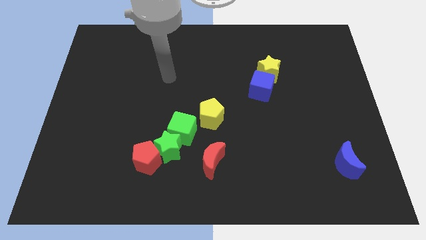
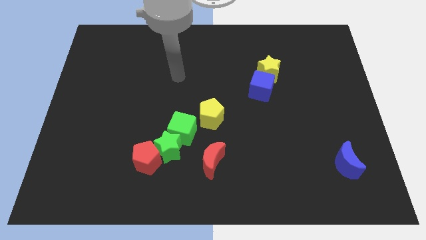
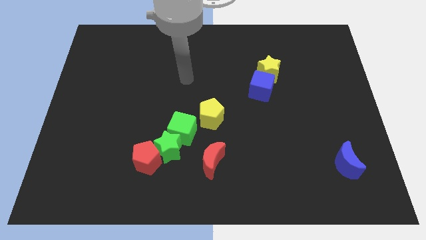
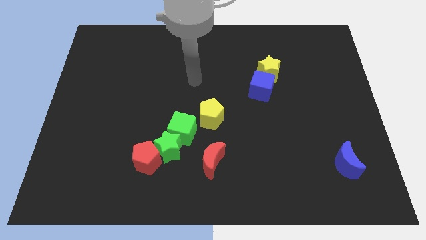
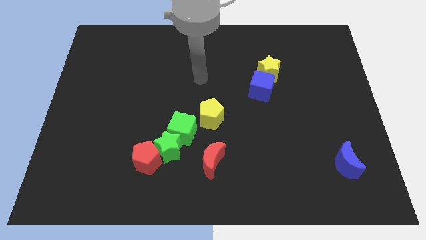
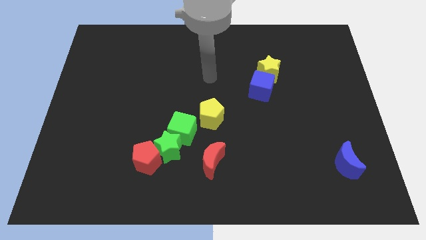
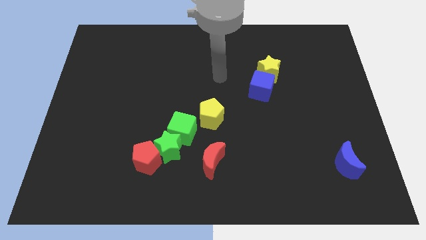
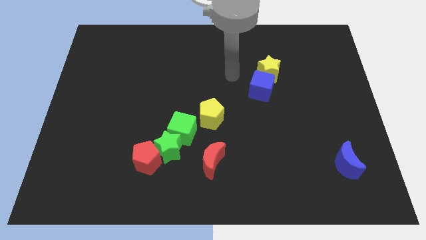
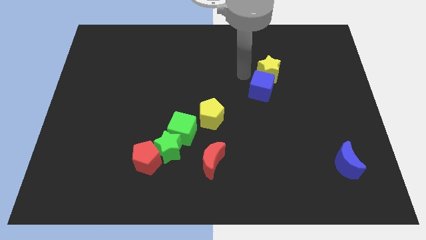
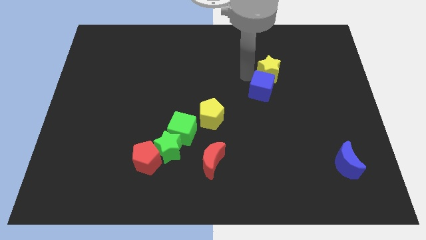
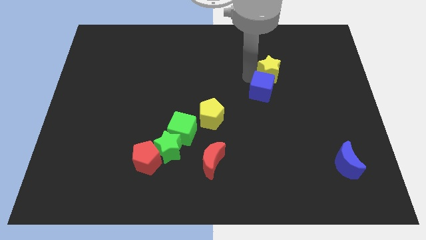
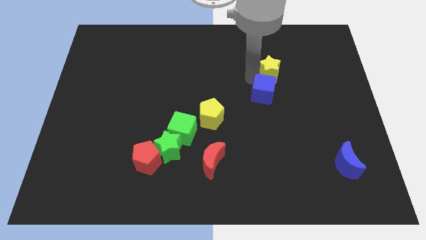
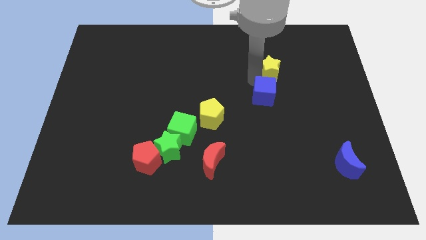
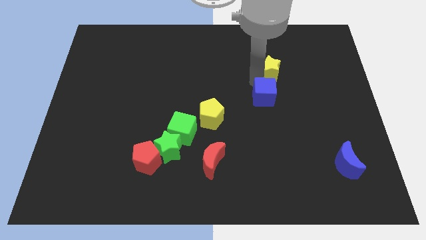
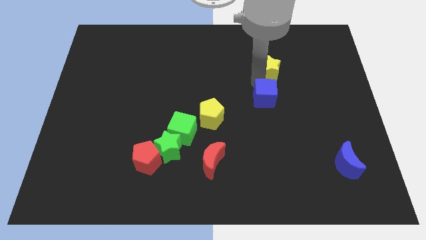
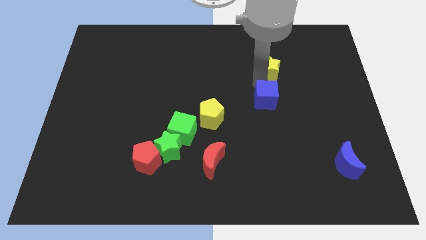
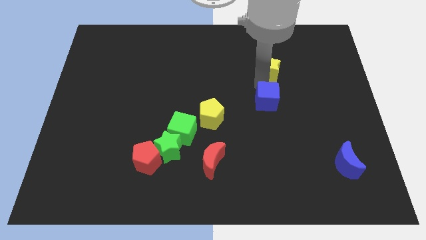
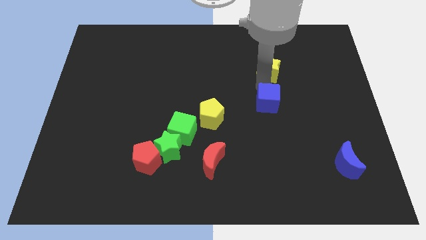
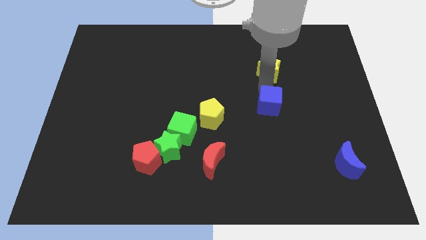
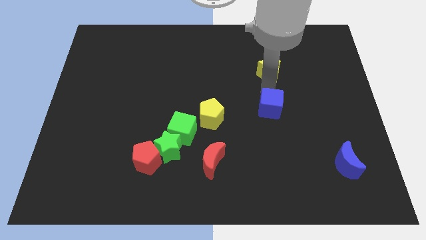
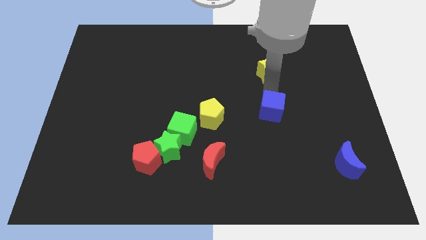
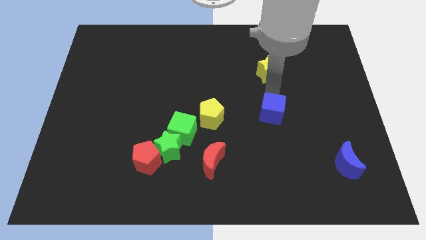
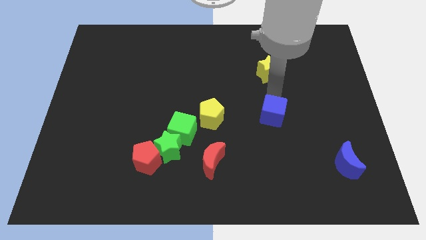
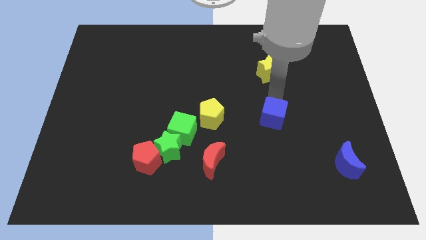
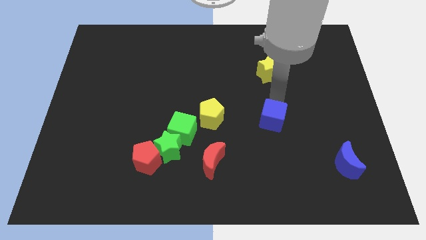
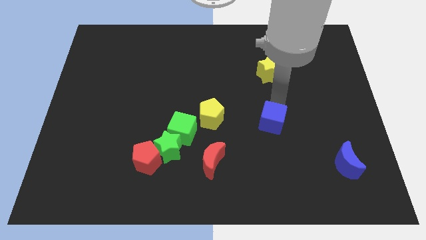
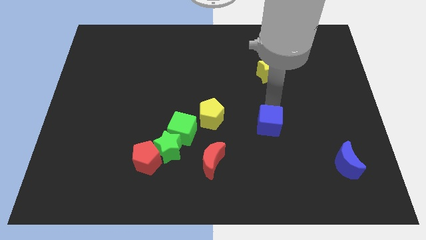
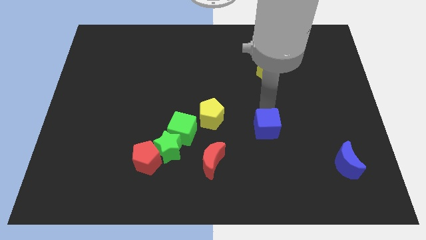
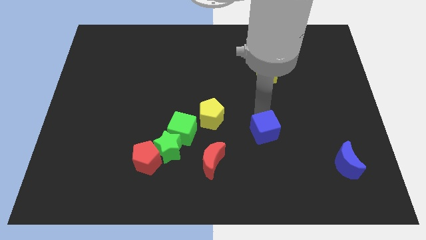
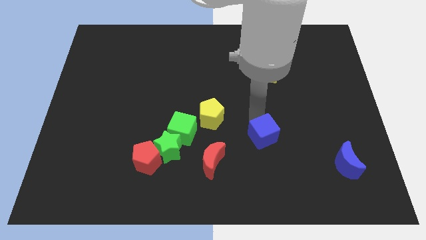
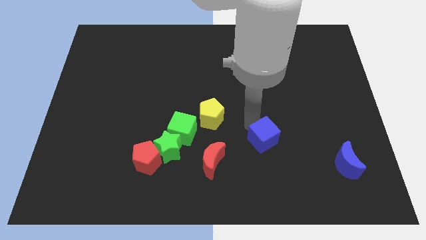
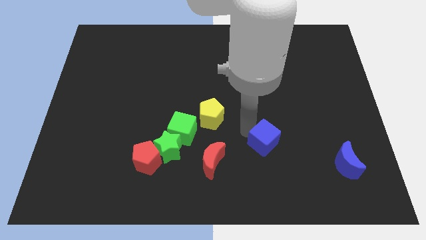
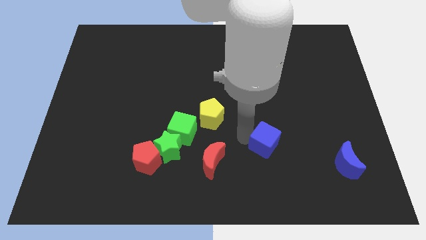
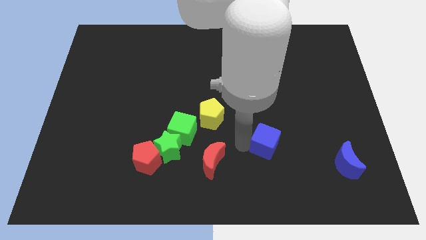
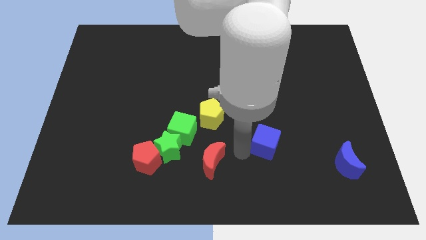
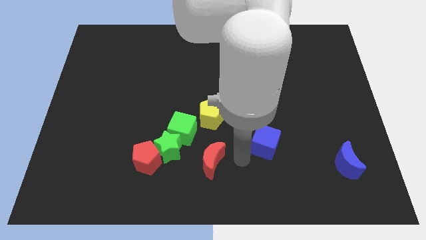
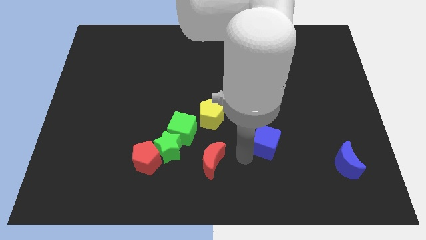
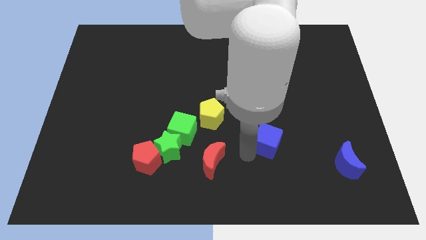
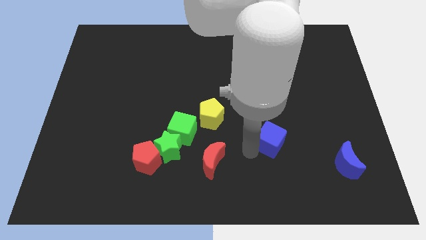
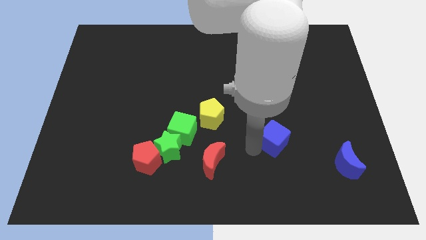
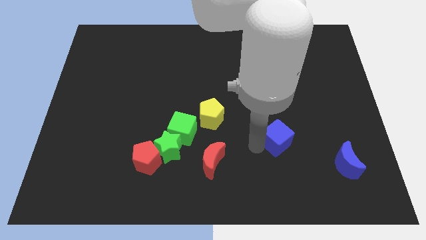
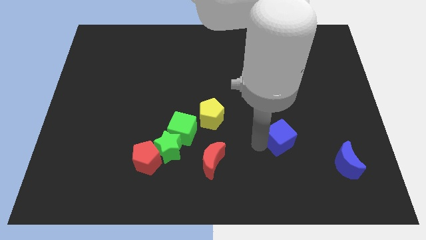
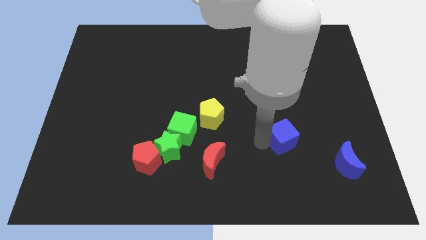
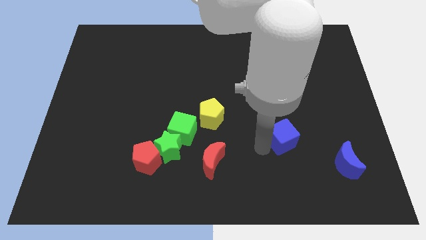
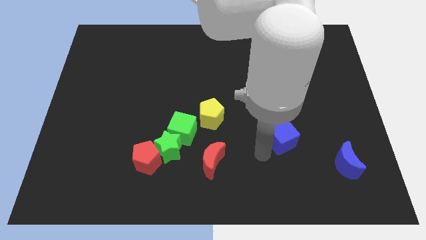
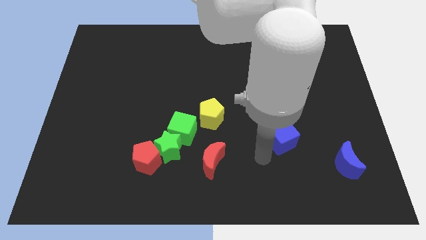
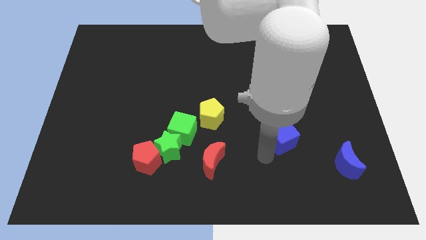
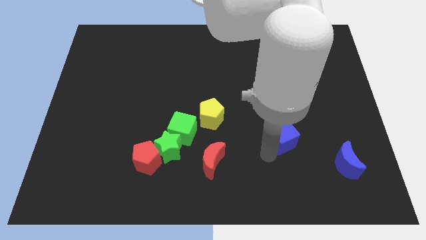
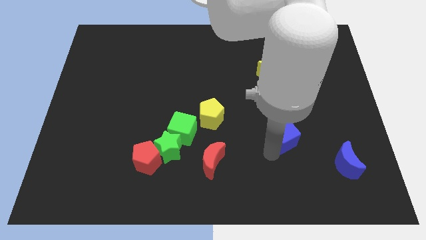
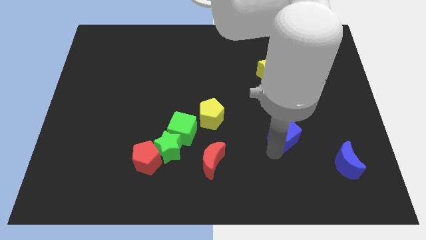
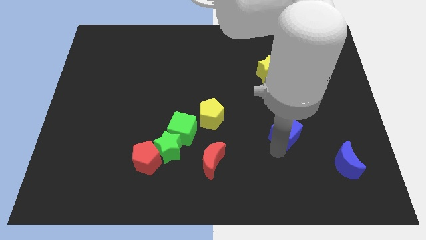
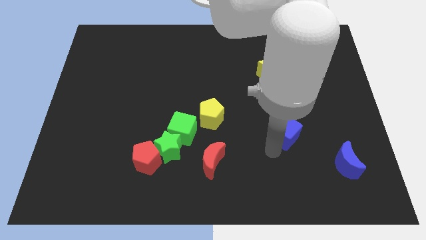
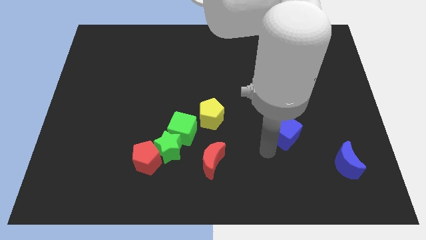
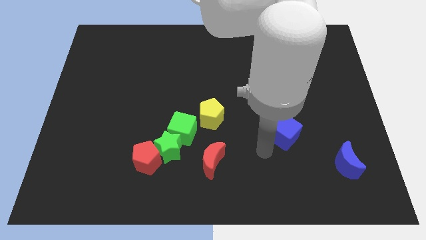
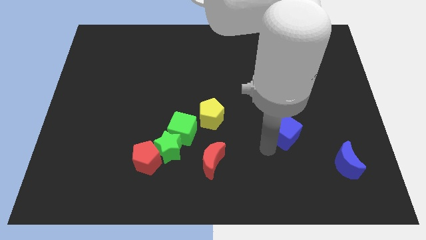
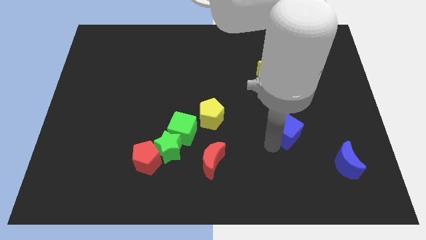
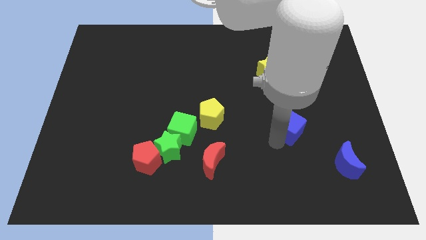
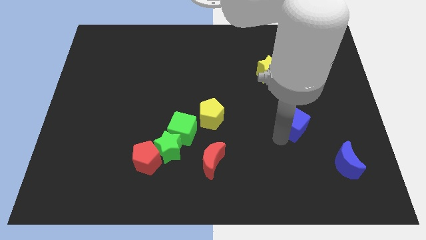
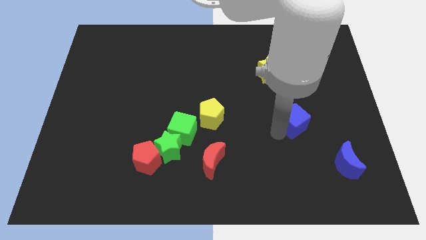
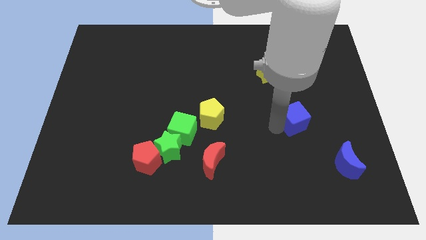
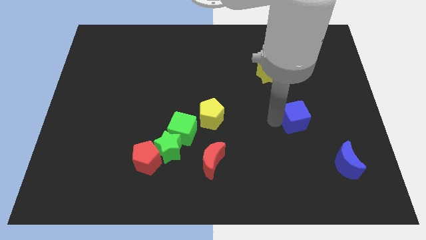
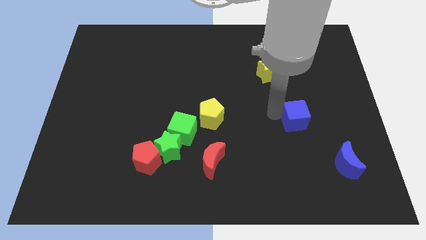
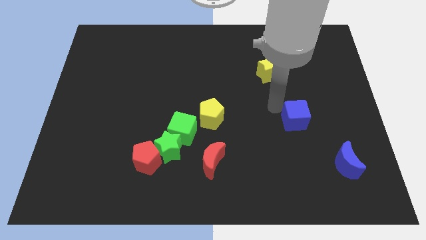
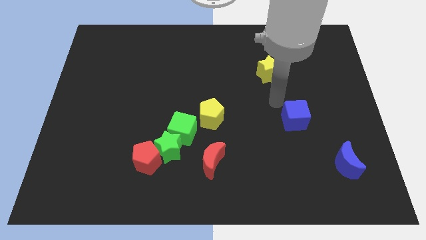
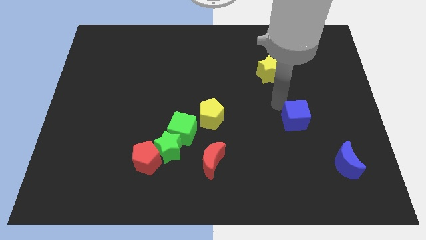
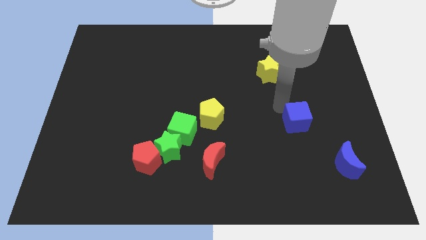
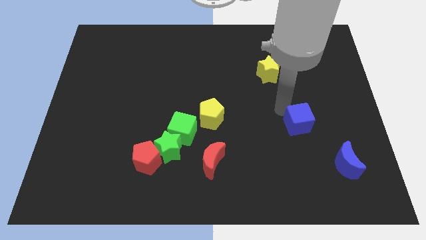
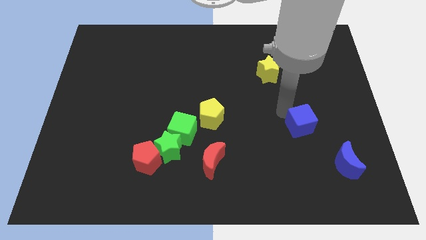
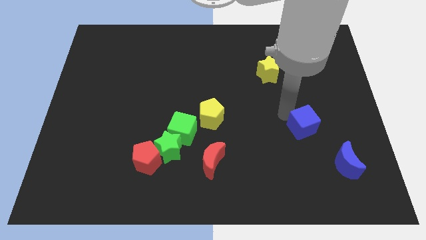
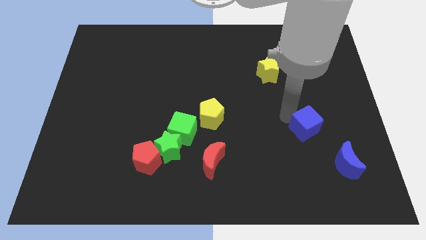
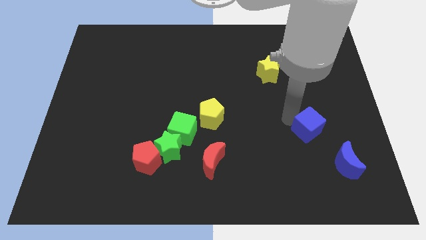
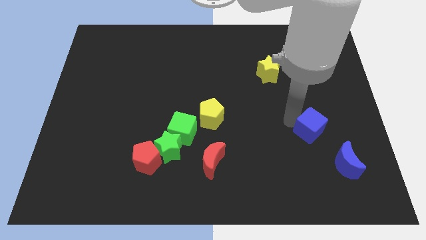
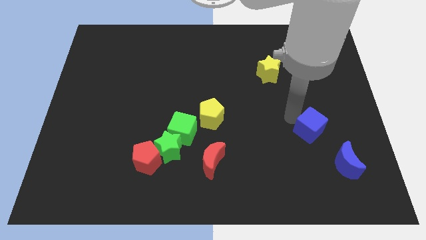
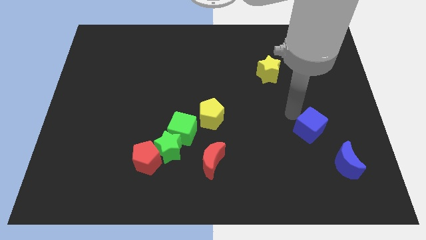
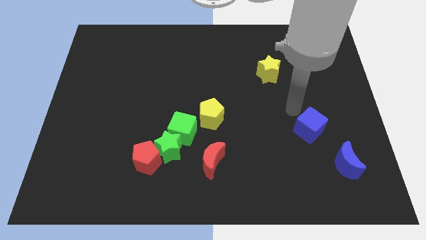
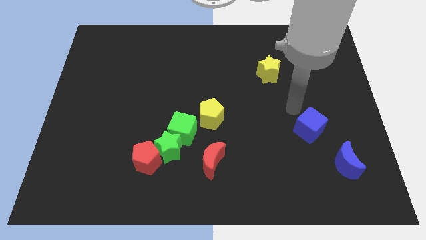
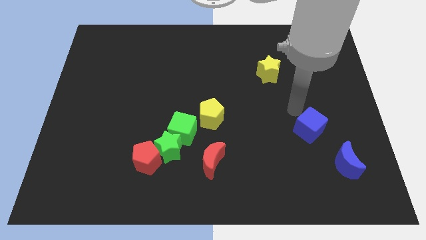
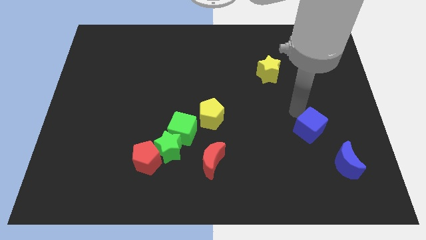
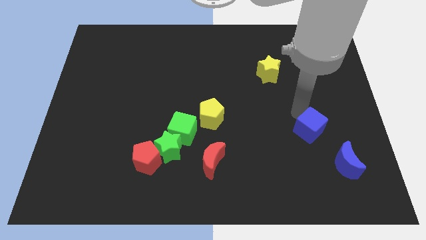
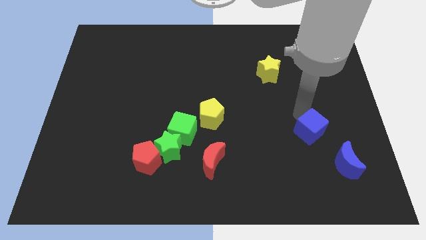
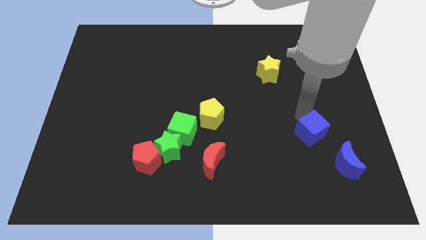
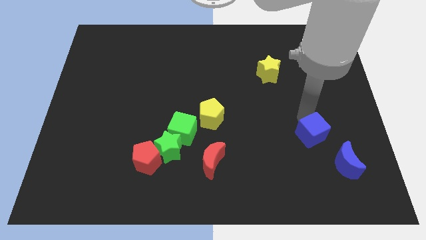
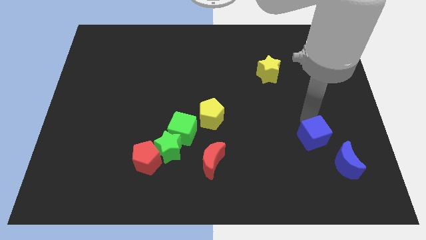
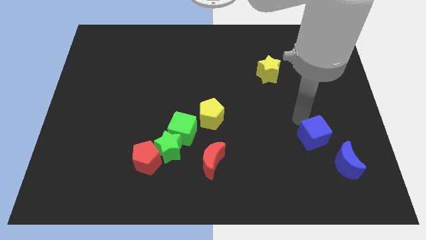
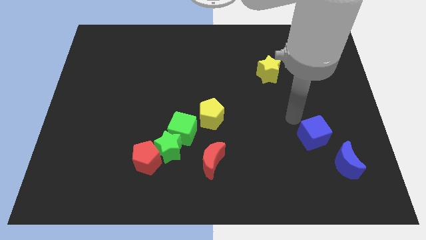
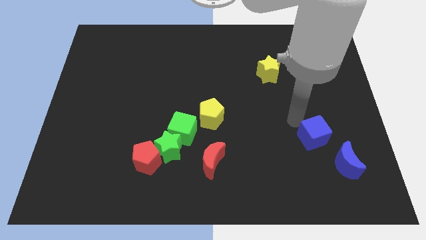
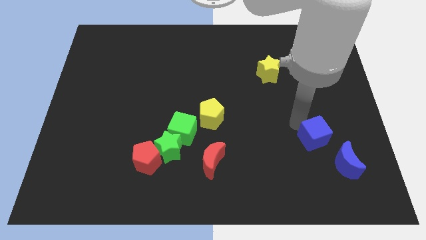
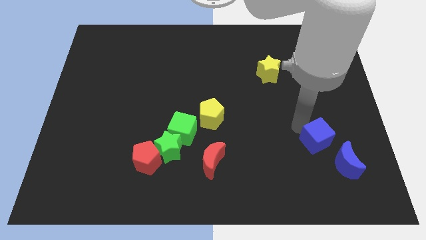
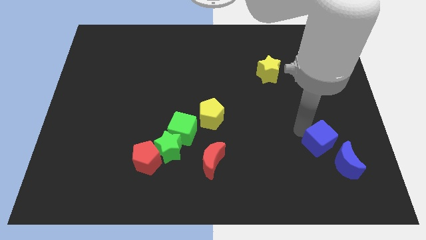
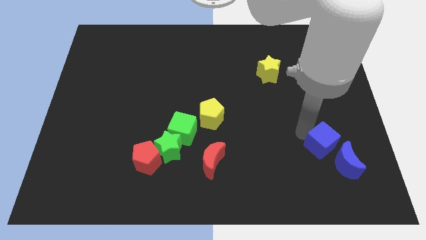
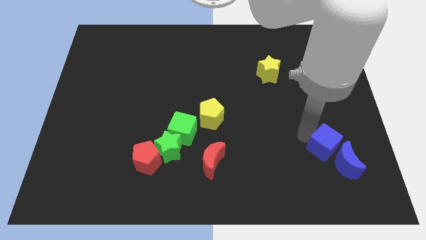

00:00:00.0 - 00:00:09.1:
slide the blue cube next to the blue moon
